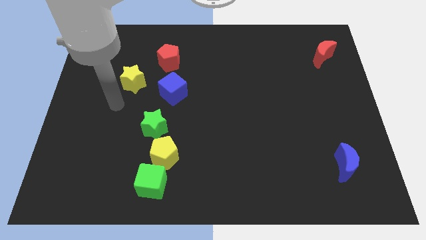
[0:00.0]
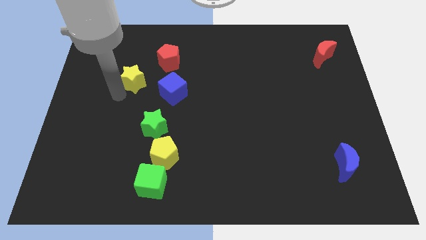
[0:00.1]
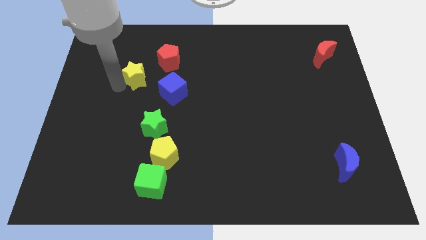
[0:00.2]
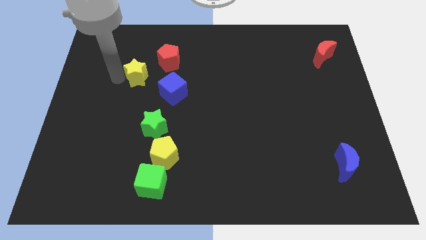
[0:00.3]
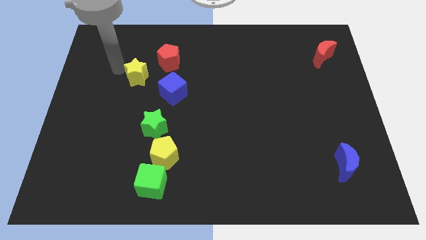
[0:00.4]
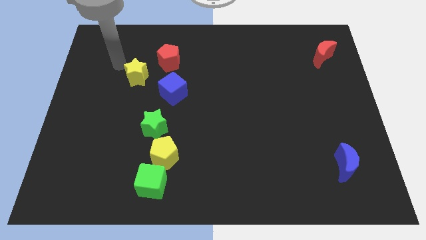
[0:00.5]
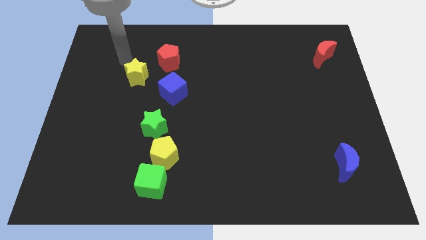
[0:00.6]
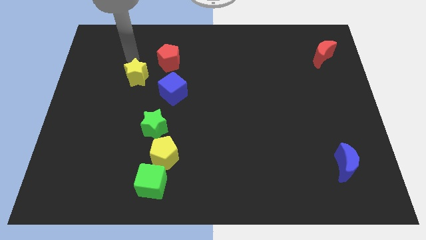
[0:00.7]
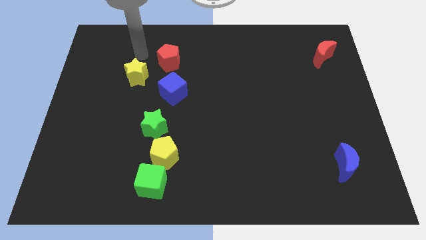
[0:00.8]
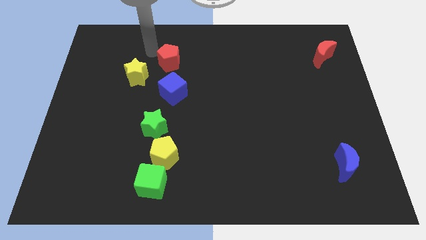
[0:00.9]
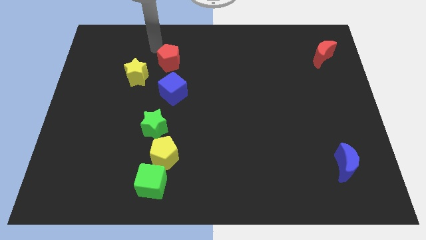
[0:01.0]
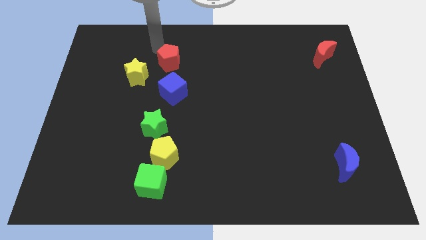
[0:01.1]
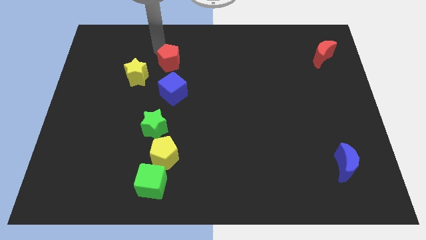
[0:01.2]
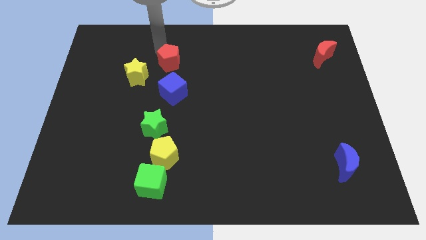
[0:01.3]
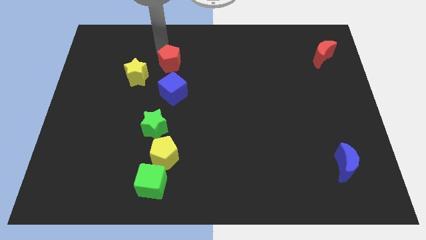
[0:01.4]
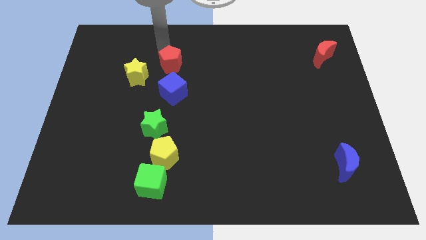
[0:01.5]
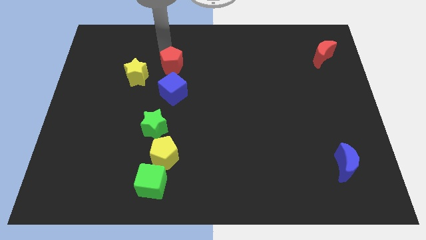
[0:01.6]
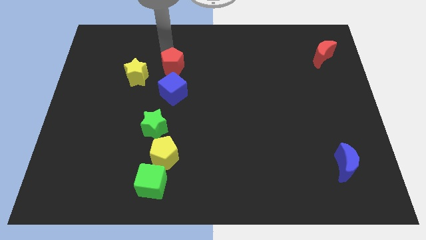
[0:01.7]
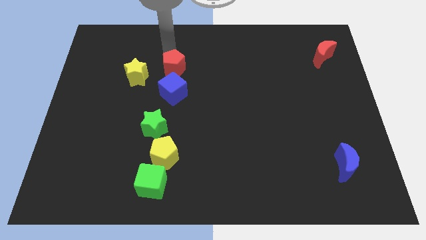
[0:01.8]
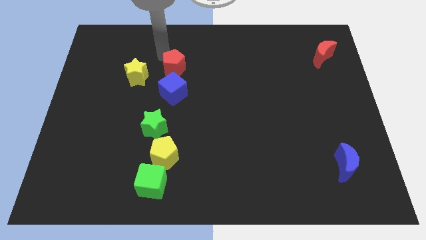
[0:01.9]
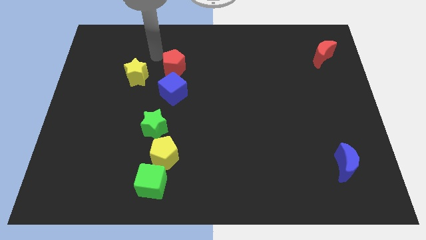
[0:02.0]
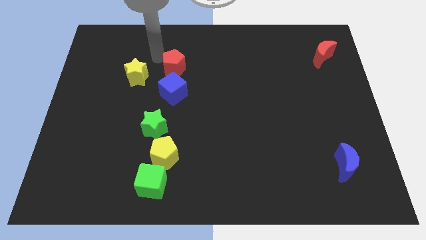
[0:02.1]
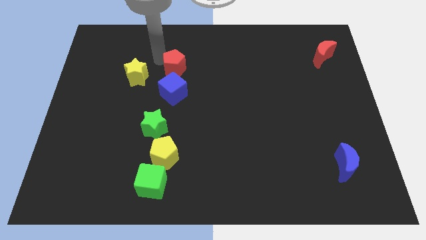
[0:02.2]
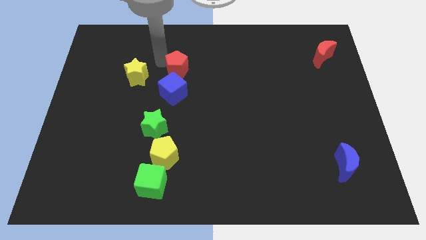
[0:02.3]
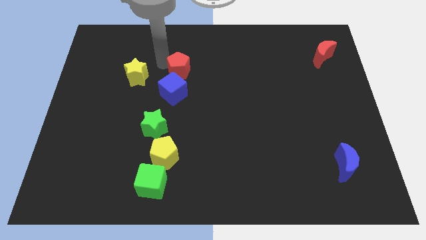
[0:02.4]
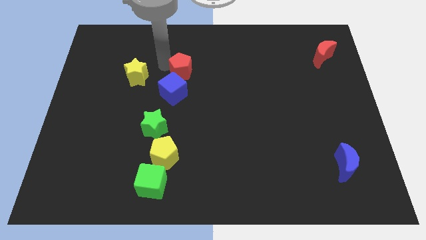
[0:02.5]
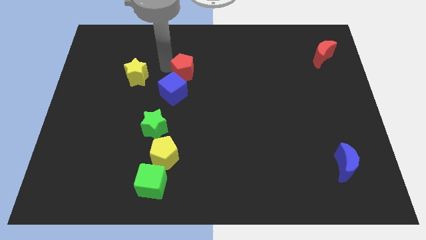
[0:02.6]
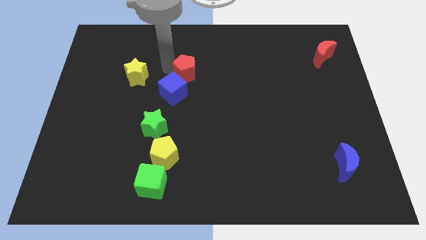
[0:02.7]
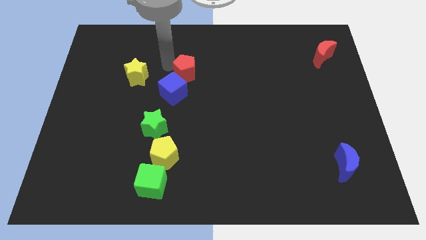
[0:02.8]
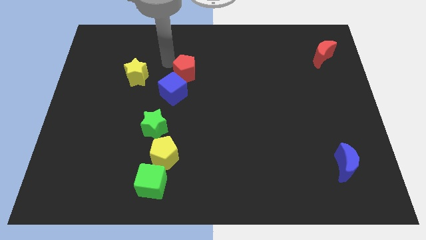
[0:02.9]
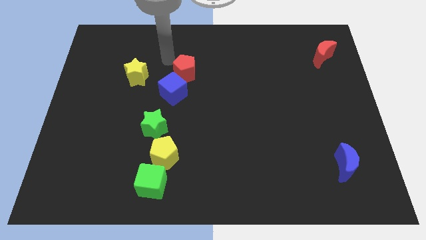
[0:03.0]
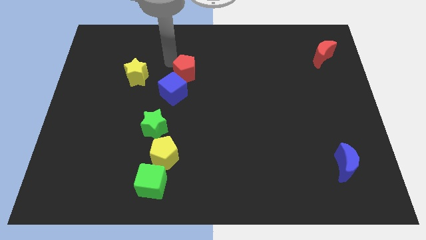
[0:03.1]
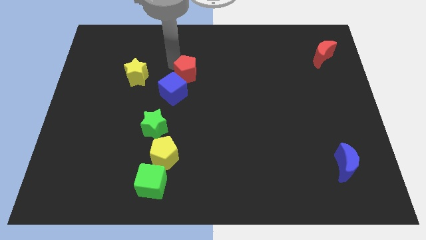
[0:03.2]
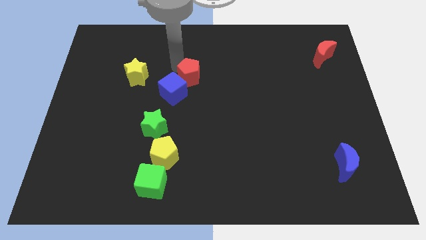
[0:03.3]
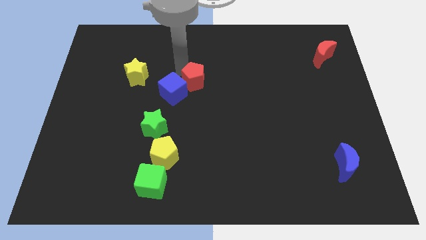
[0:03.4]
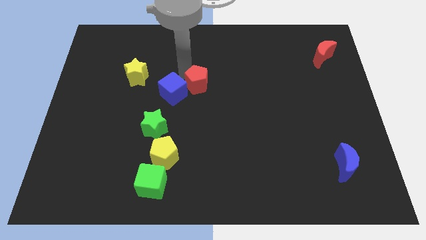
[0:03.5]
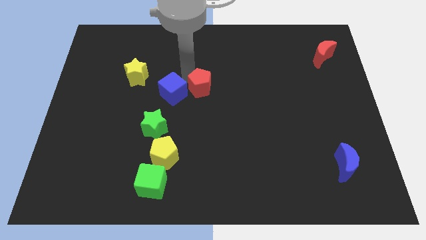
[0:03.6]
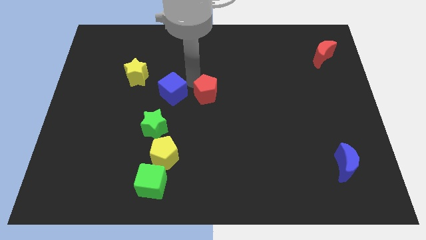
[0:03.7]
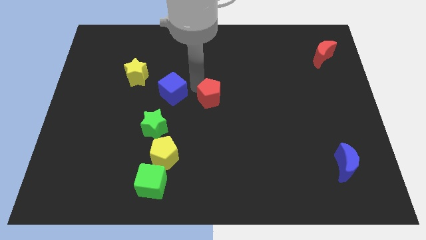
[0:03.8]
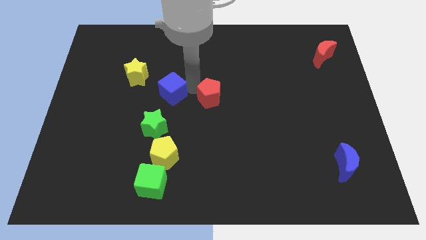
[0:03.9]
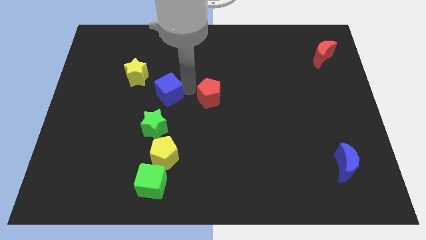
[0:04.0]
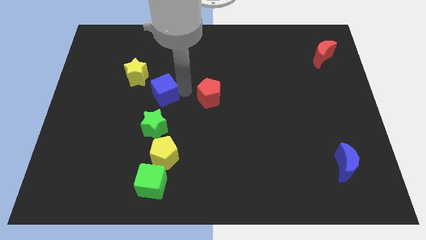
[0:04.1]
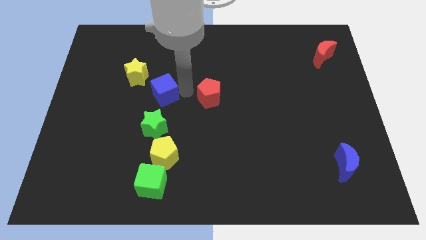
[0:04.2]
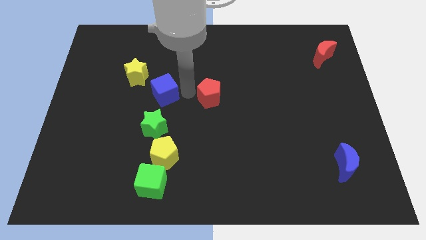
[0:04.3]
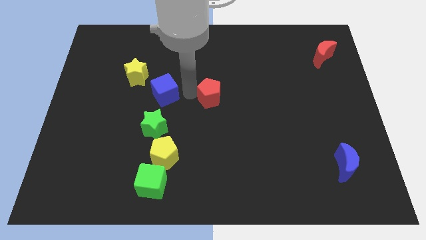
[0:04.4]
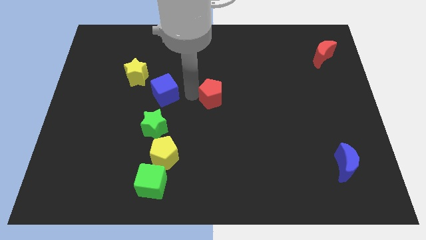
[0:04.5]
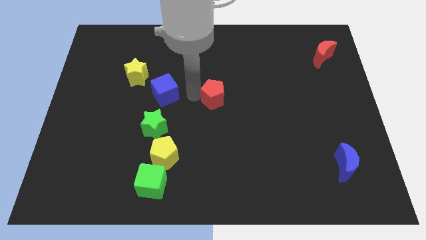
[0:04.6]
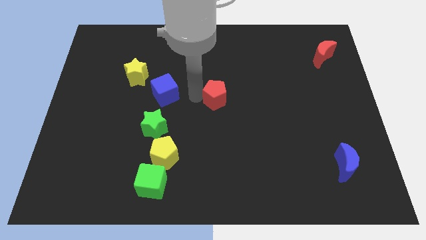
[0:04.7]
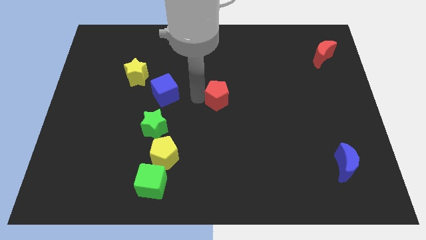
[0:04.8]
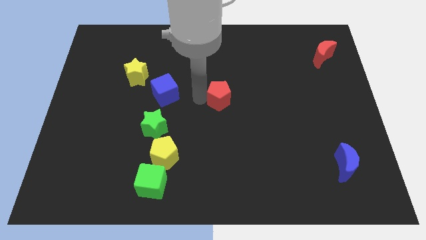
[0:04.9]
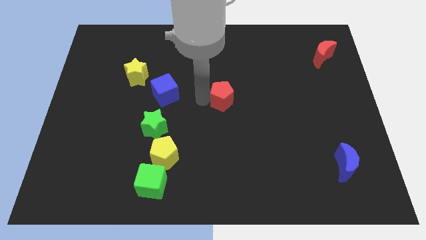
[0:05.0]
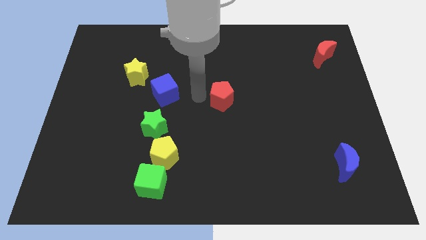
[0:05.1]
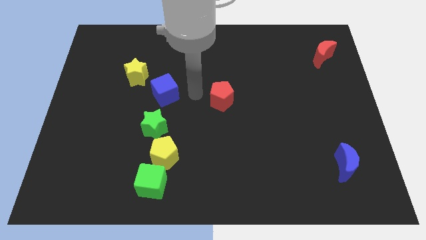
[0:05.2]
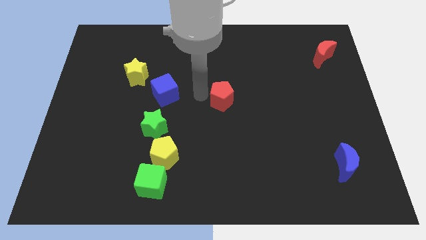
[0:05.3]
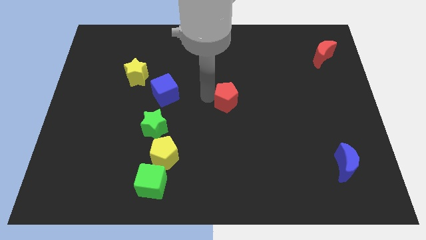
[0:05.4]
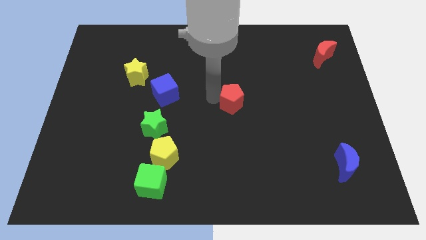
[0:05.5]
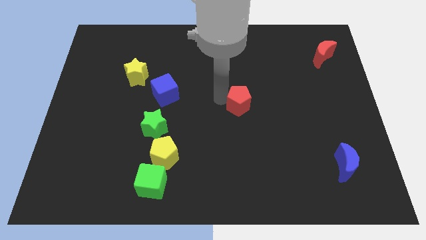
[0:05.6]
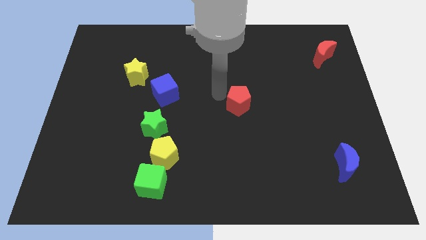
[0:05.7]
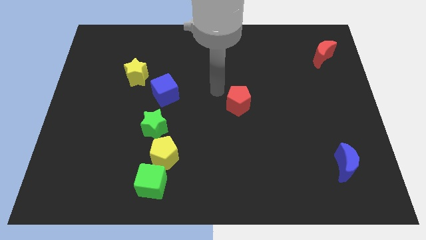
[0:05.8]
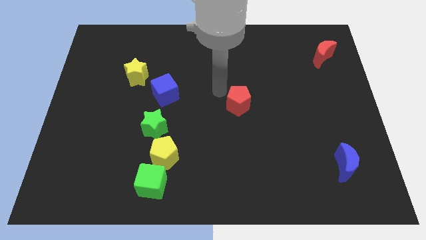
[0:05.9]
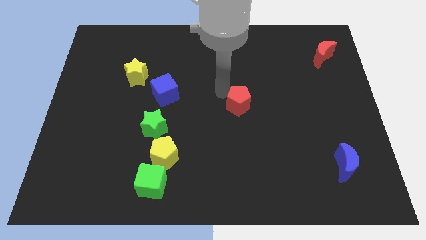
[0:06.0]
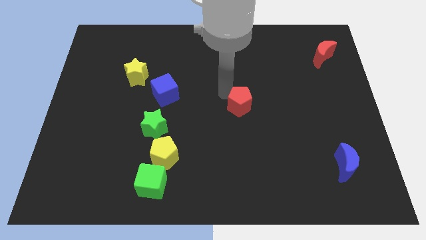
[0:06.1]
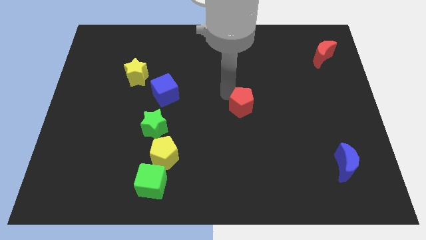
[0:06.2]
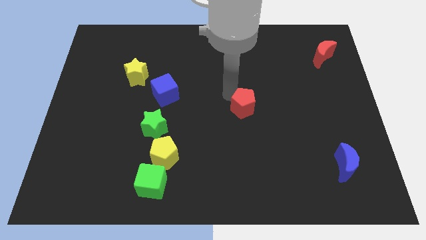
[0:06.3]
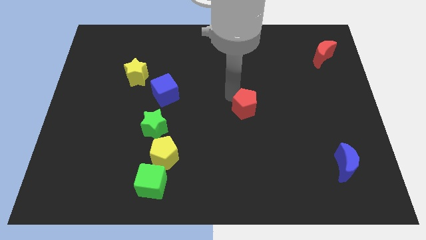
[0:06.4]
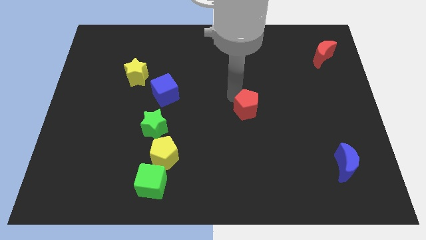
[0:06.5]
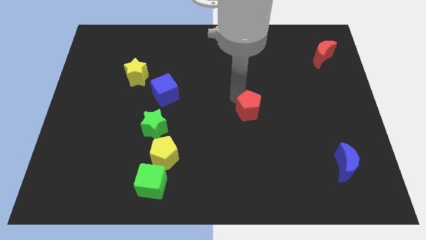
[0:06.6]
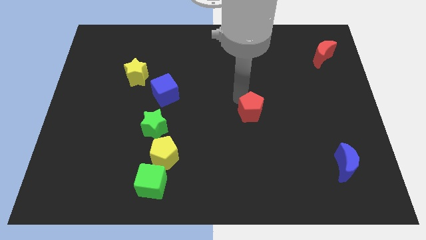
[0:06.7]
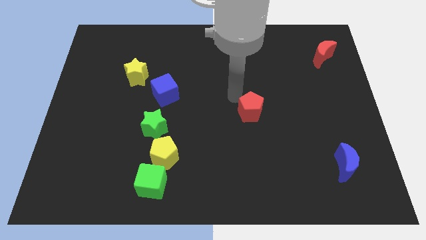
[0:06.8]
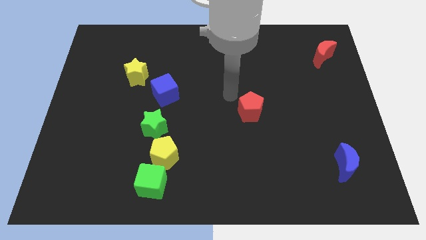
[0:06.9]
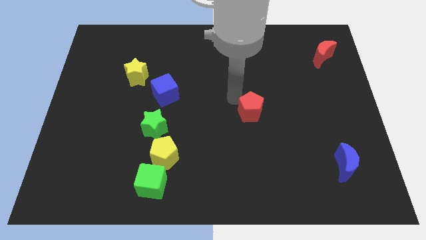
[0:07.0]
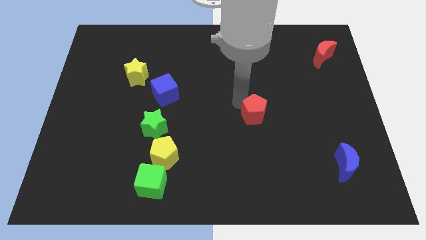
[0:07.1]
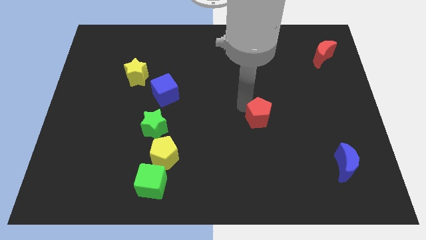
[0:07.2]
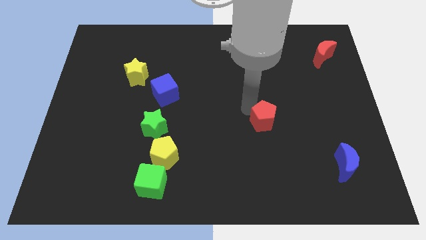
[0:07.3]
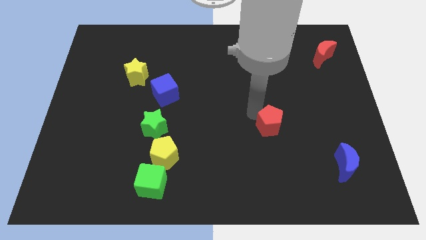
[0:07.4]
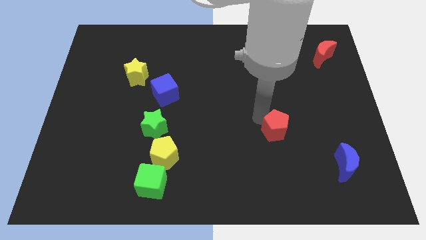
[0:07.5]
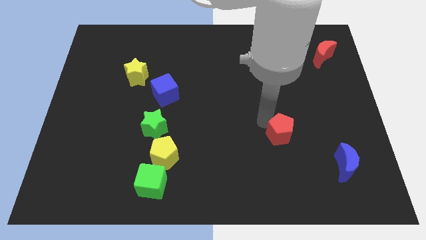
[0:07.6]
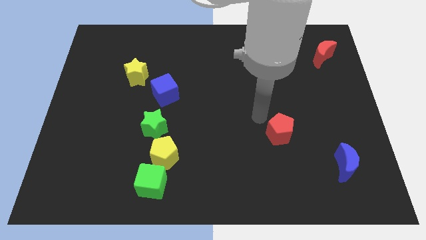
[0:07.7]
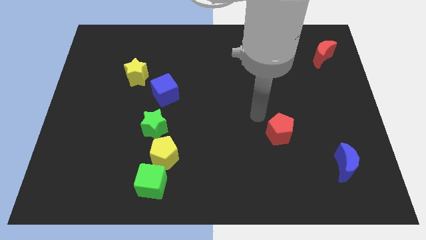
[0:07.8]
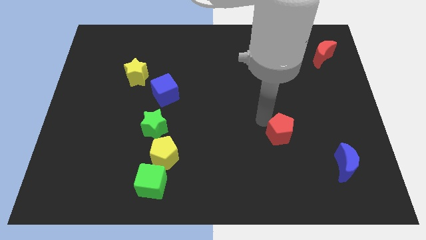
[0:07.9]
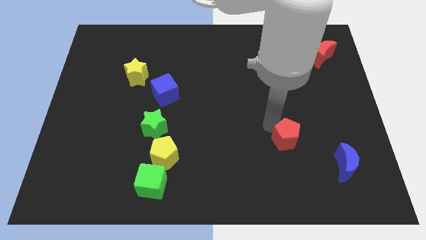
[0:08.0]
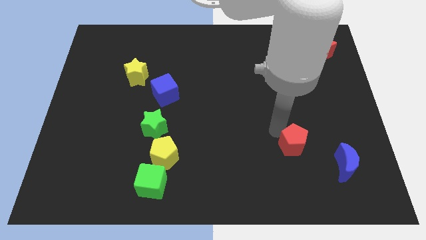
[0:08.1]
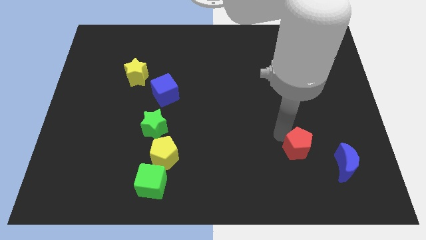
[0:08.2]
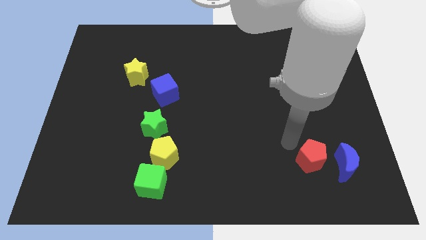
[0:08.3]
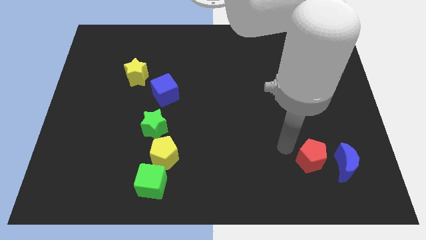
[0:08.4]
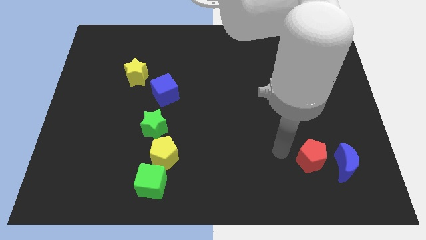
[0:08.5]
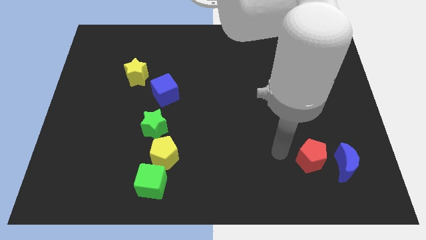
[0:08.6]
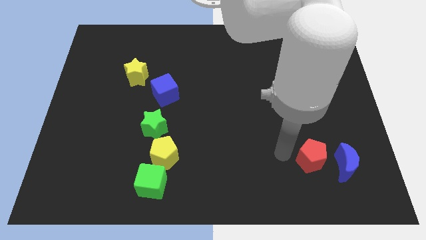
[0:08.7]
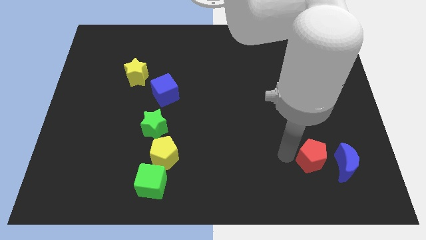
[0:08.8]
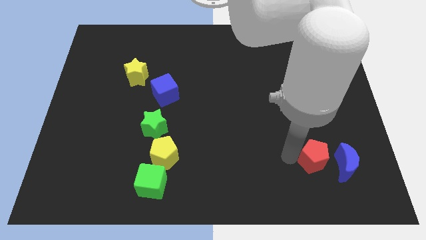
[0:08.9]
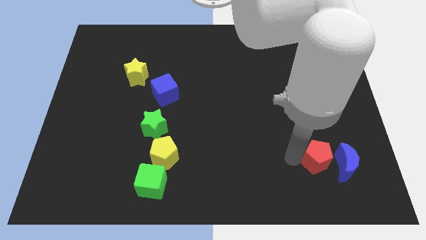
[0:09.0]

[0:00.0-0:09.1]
slide the red pentagon towards the blue moon
